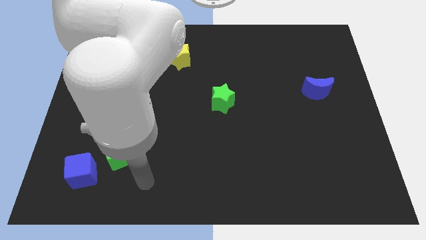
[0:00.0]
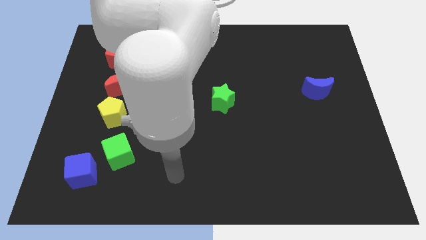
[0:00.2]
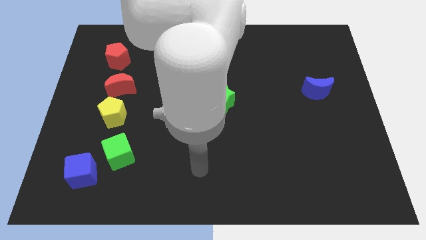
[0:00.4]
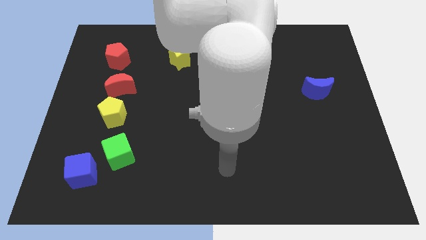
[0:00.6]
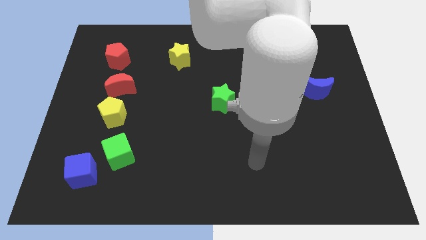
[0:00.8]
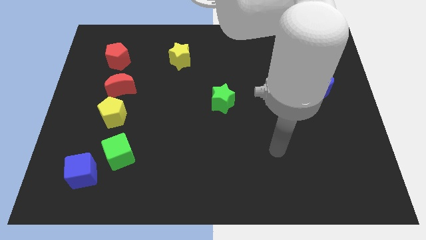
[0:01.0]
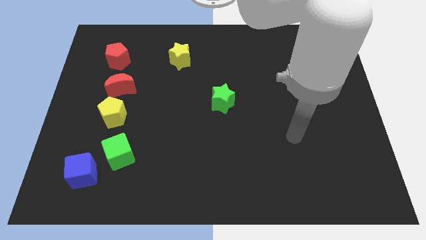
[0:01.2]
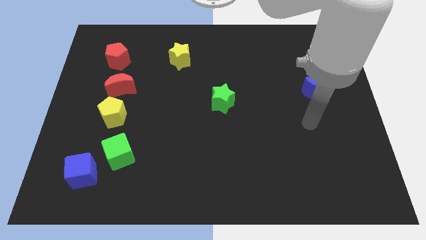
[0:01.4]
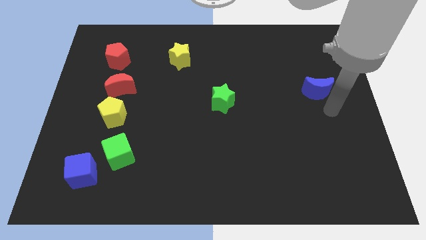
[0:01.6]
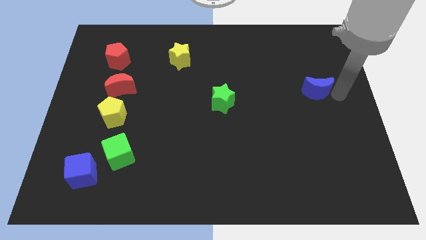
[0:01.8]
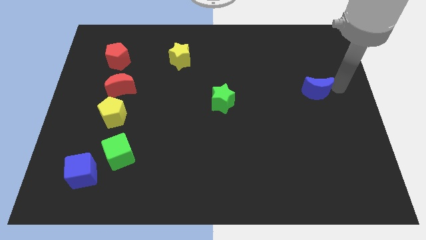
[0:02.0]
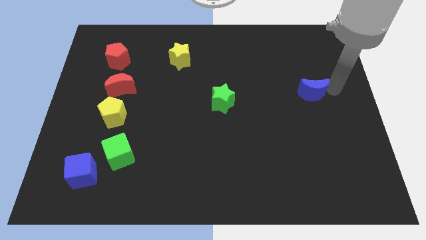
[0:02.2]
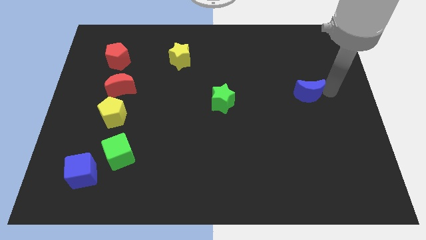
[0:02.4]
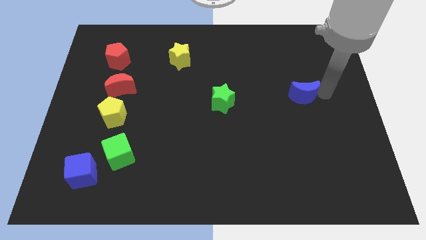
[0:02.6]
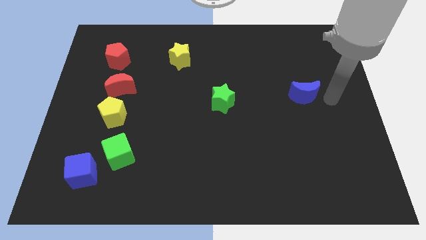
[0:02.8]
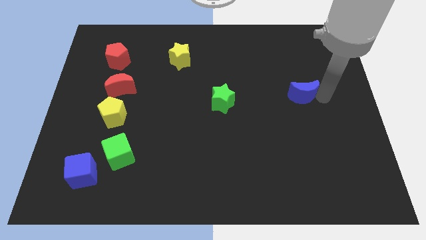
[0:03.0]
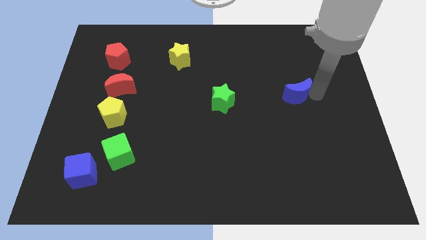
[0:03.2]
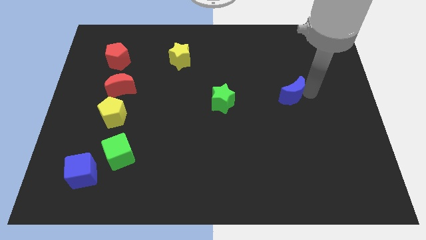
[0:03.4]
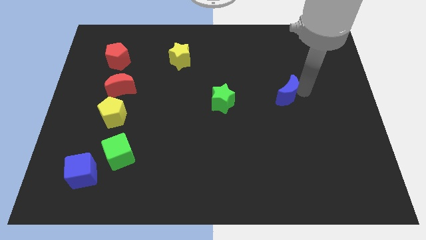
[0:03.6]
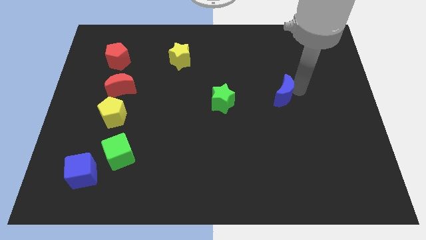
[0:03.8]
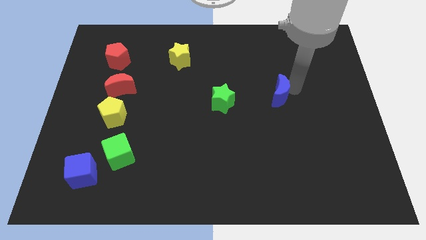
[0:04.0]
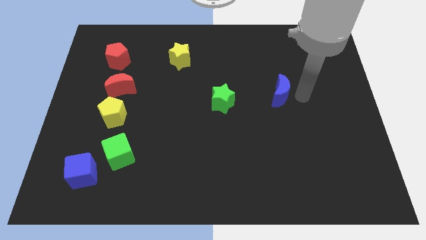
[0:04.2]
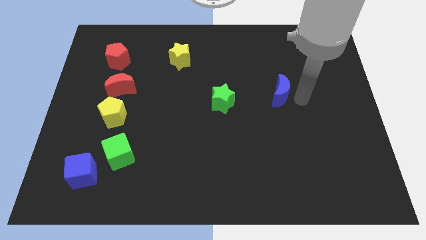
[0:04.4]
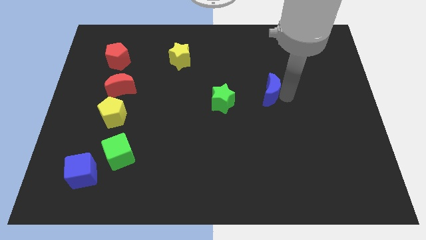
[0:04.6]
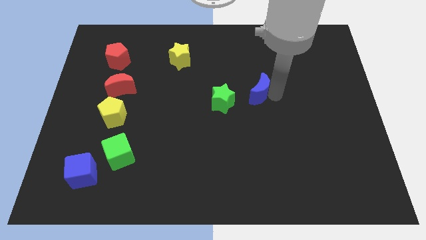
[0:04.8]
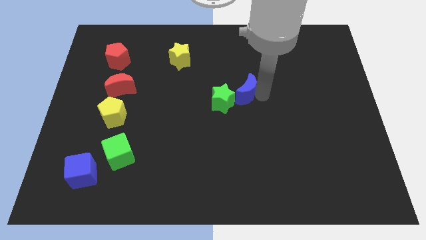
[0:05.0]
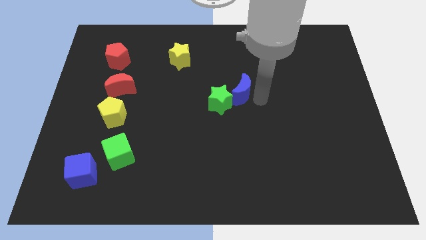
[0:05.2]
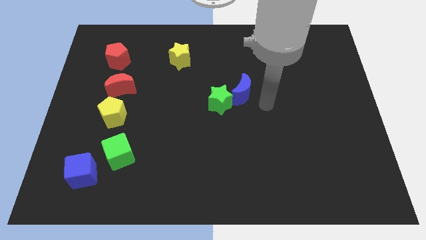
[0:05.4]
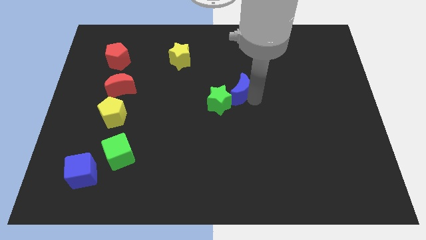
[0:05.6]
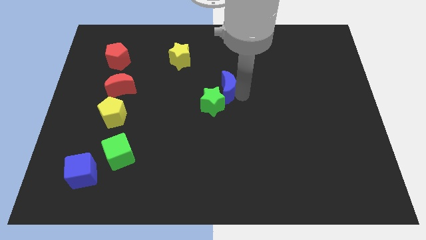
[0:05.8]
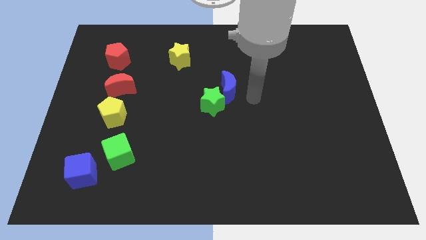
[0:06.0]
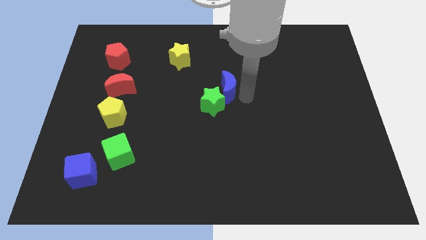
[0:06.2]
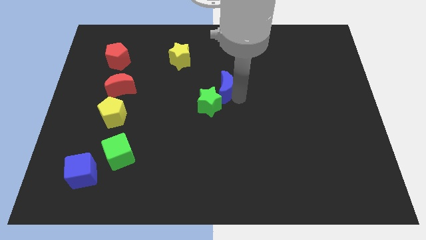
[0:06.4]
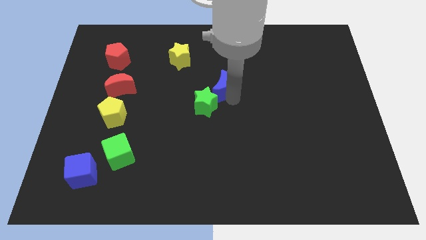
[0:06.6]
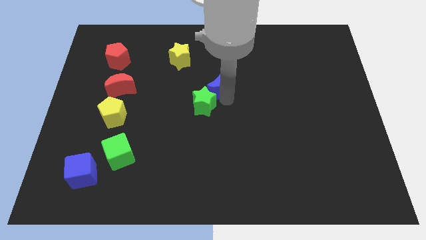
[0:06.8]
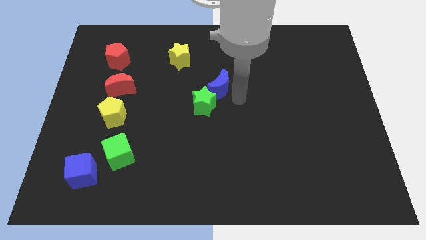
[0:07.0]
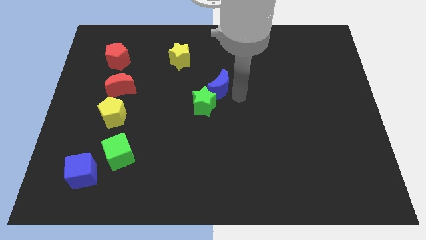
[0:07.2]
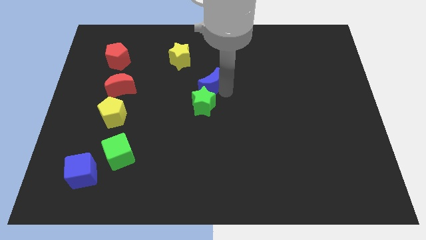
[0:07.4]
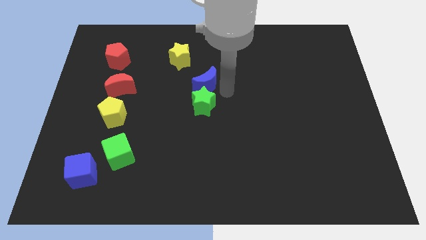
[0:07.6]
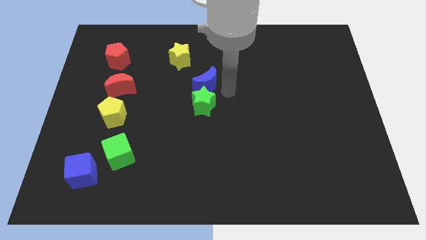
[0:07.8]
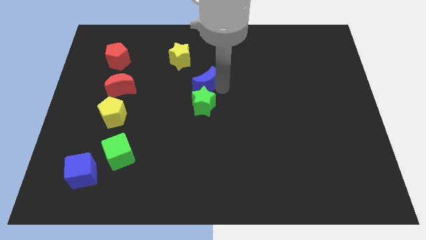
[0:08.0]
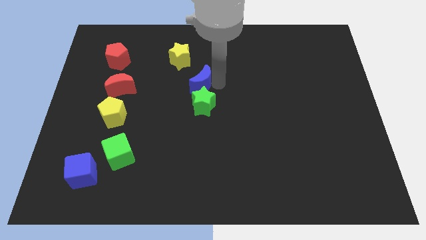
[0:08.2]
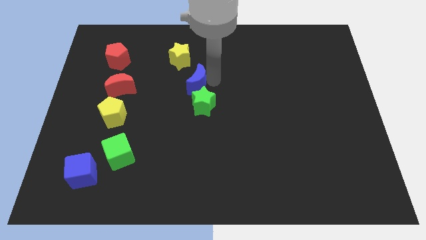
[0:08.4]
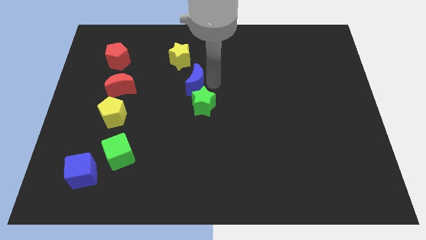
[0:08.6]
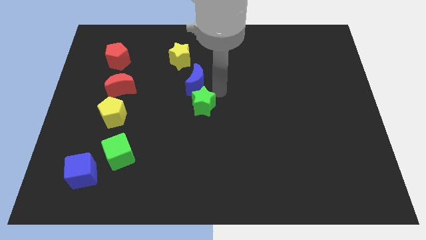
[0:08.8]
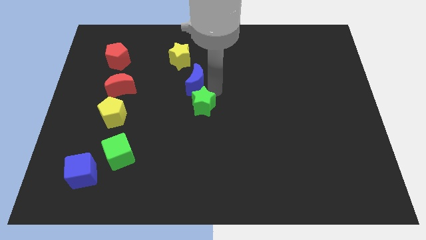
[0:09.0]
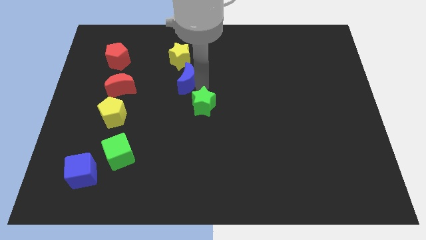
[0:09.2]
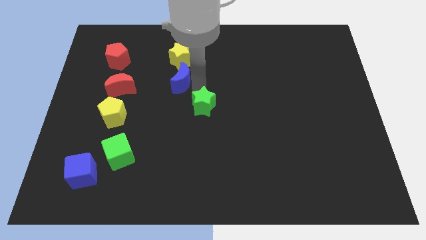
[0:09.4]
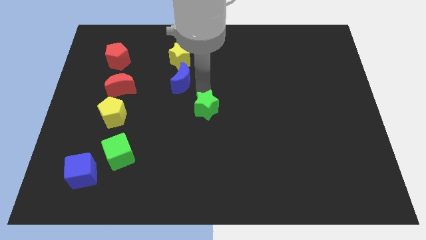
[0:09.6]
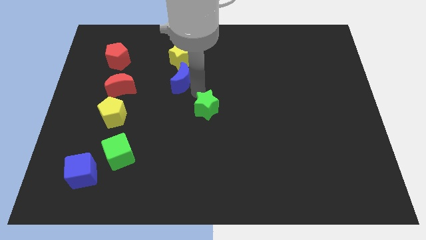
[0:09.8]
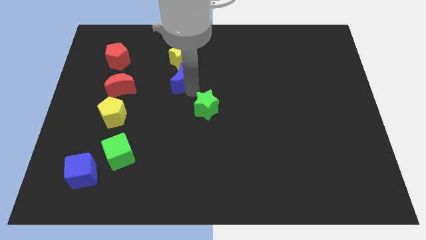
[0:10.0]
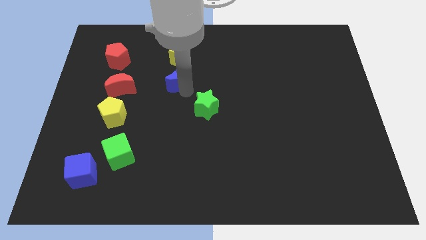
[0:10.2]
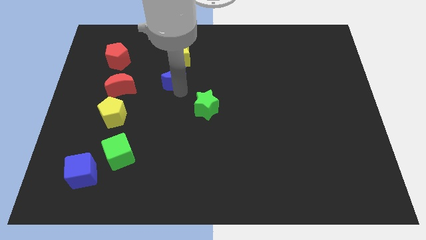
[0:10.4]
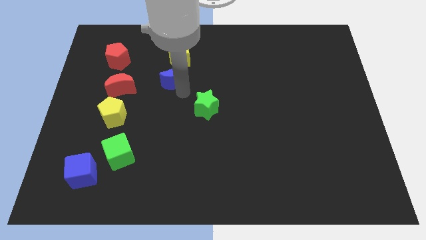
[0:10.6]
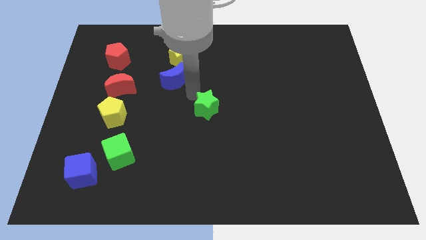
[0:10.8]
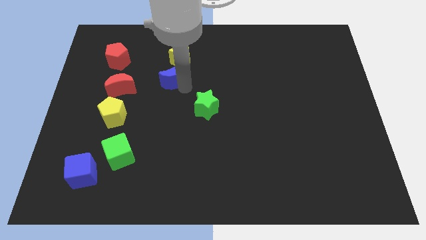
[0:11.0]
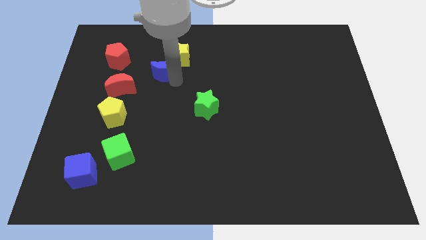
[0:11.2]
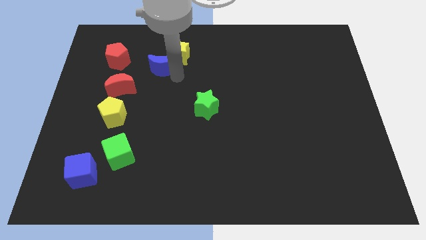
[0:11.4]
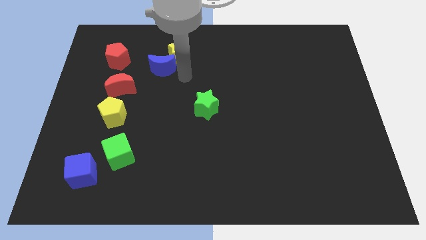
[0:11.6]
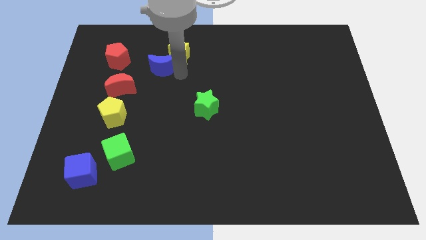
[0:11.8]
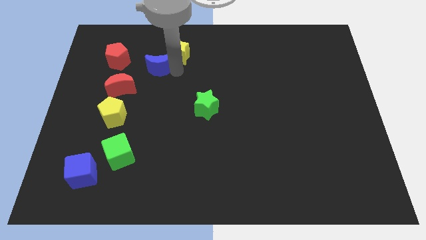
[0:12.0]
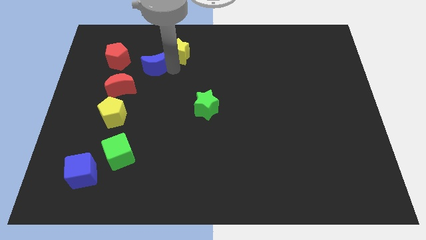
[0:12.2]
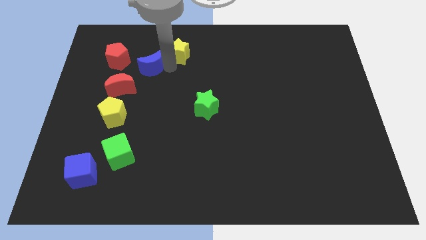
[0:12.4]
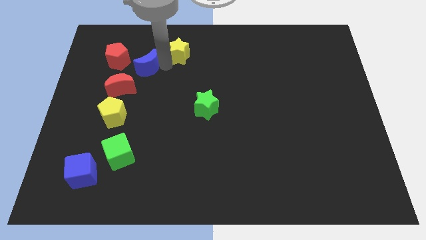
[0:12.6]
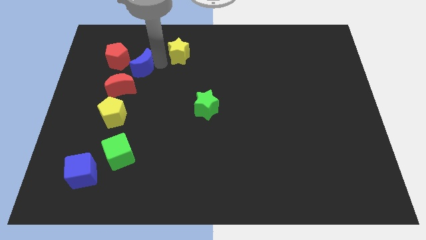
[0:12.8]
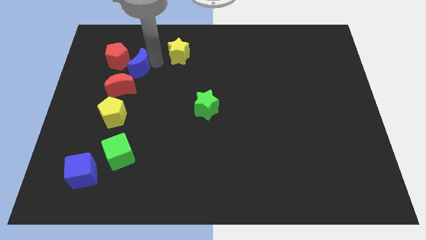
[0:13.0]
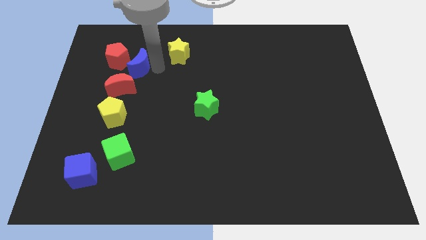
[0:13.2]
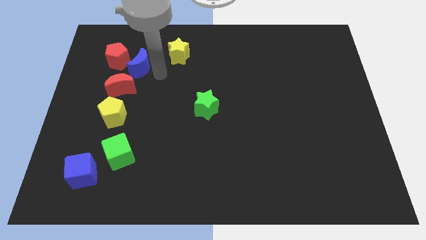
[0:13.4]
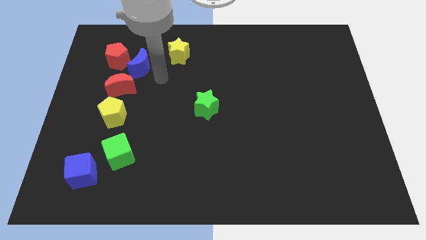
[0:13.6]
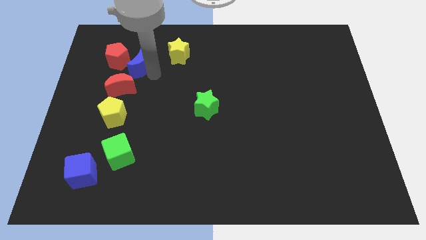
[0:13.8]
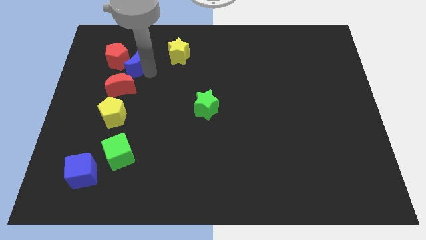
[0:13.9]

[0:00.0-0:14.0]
slide the blue moon towards the red pentagon
